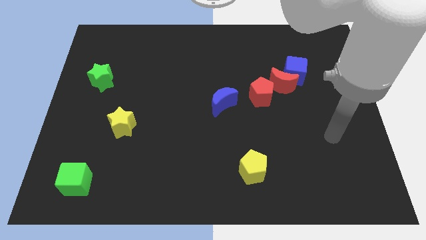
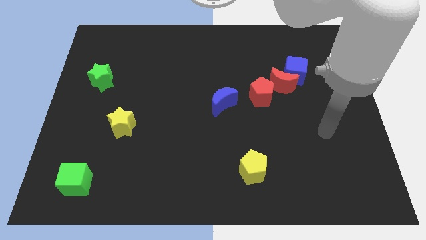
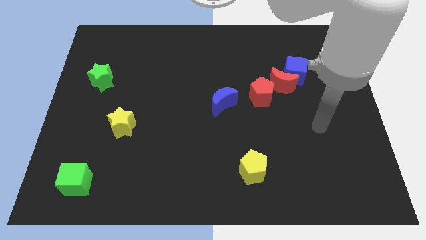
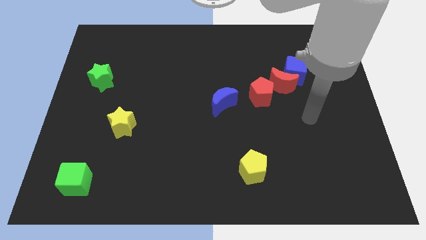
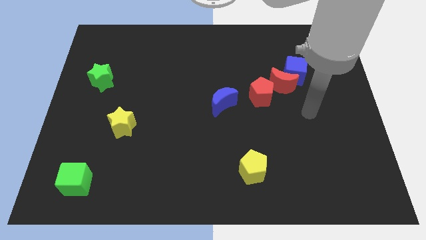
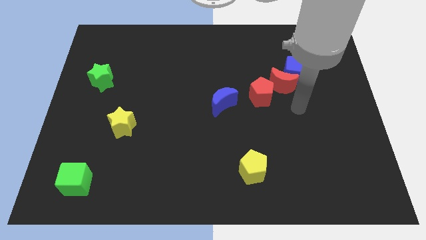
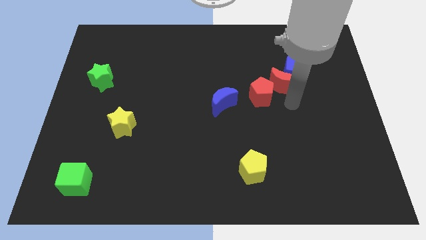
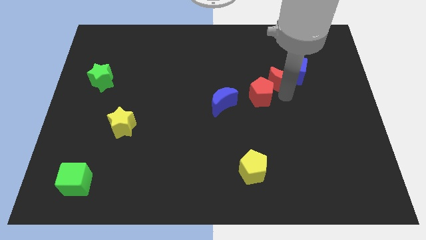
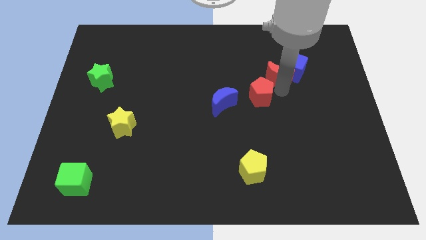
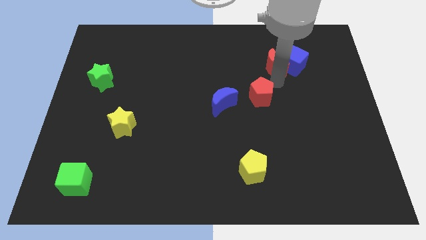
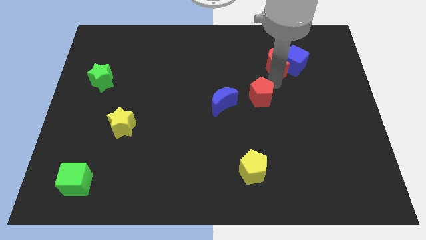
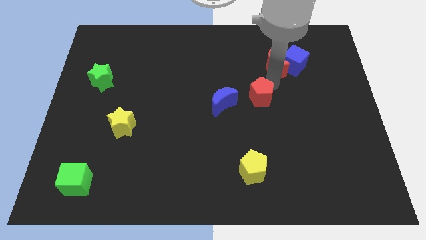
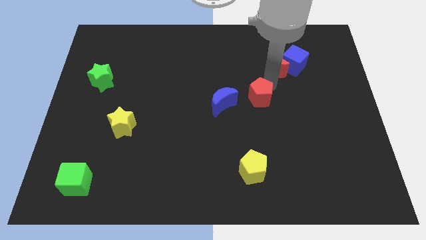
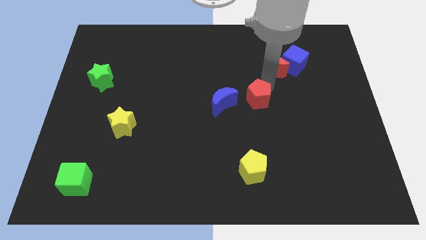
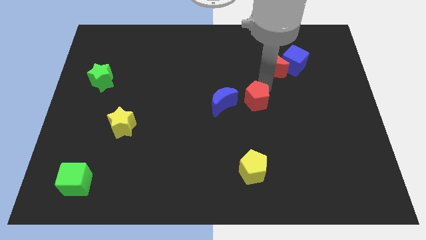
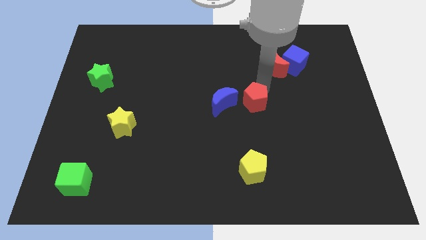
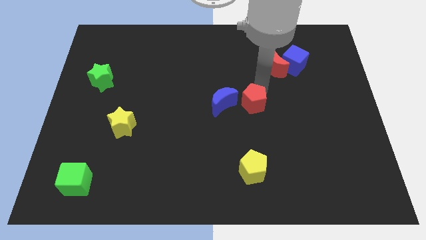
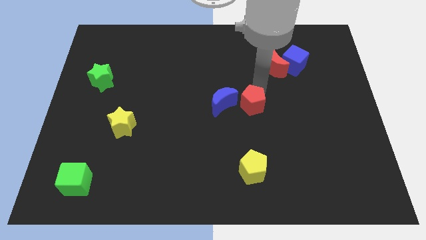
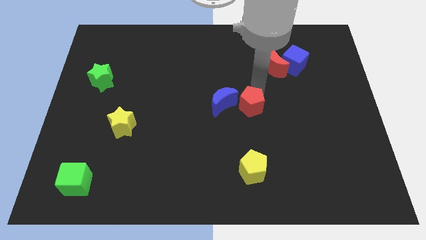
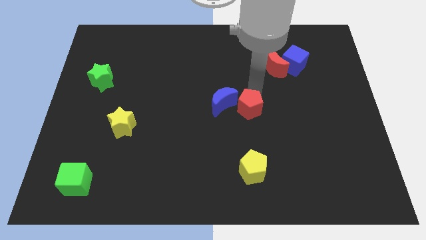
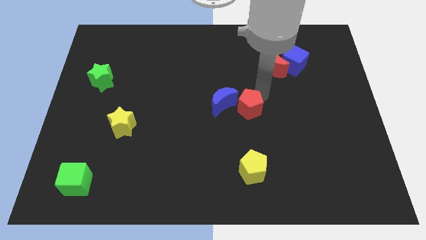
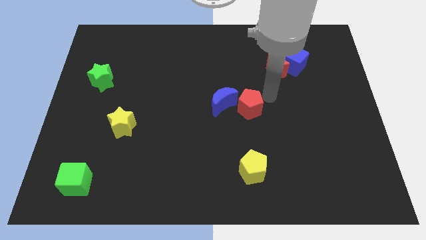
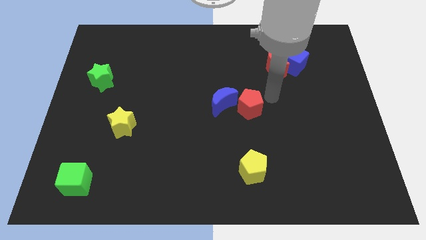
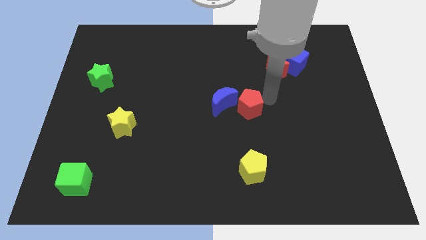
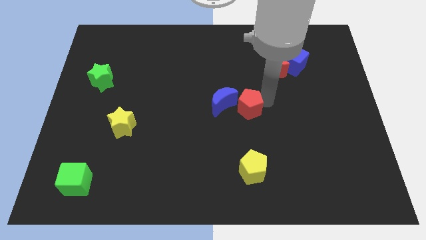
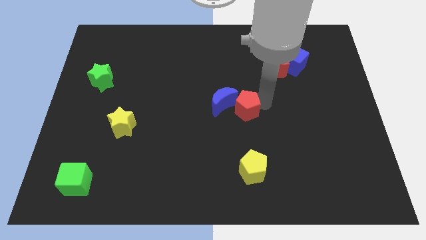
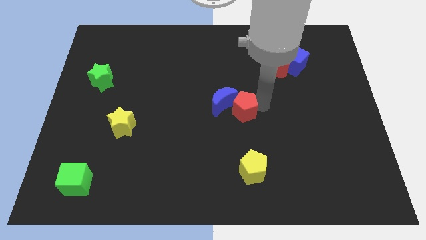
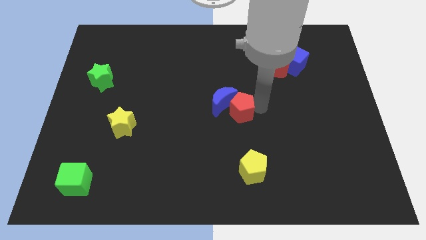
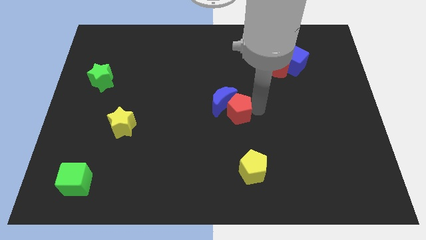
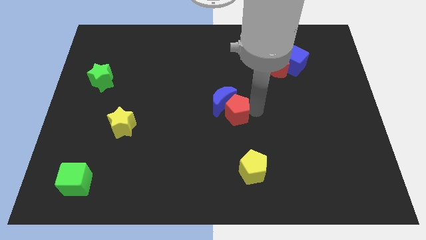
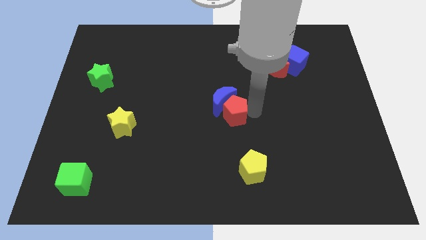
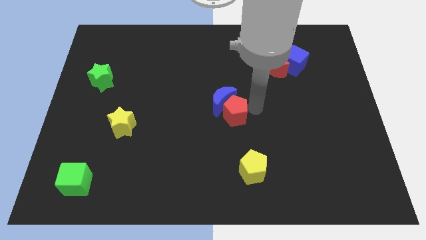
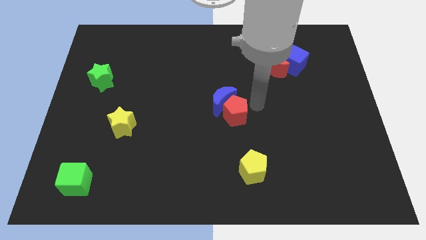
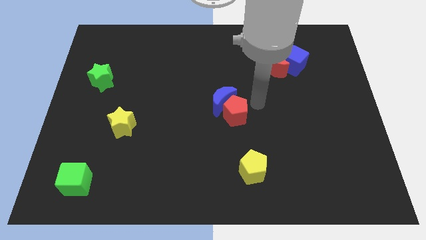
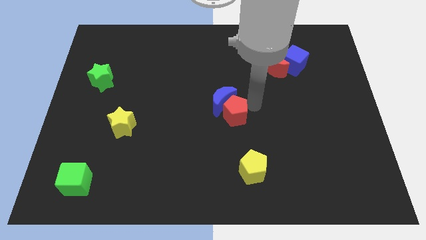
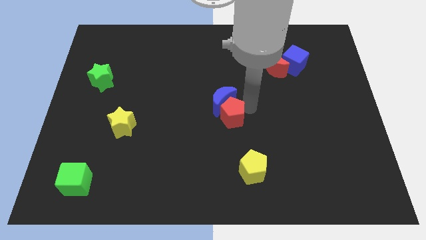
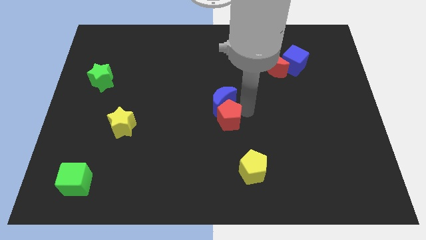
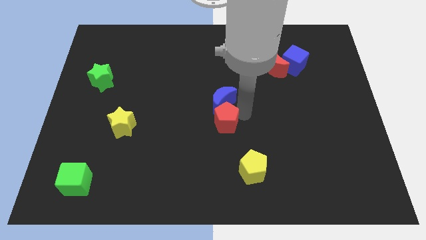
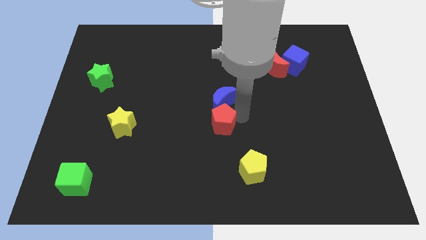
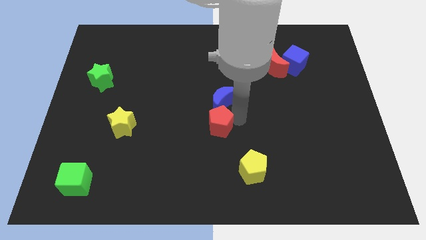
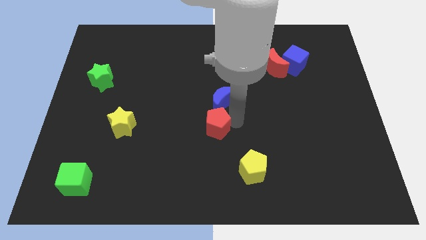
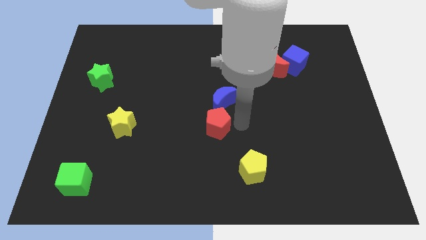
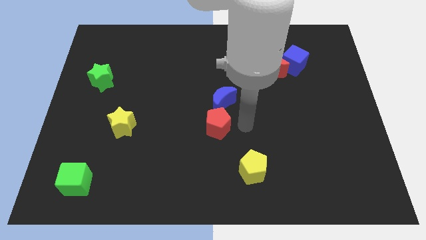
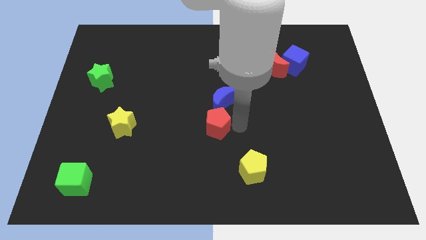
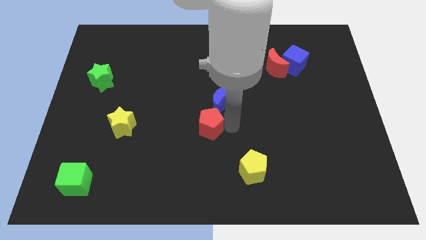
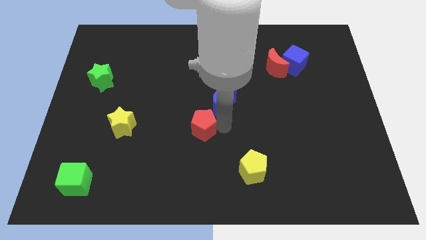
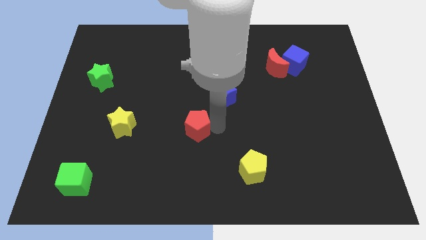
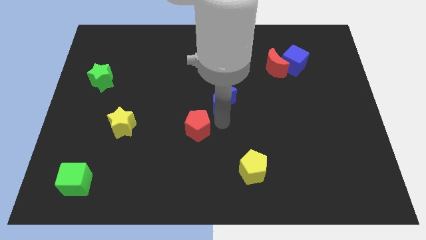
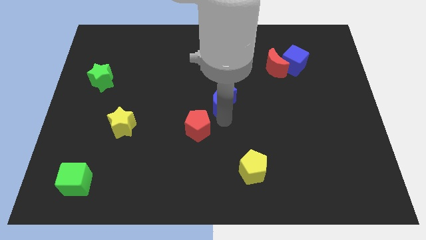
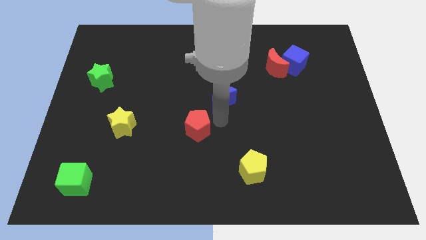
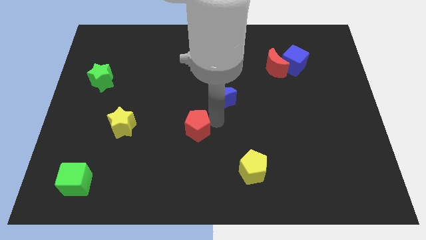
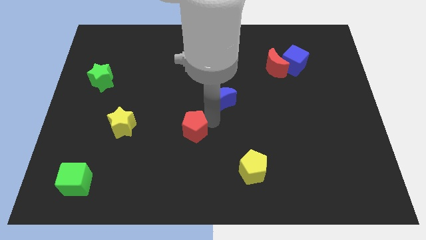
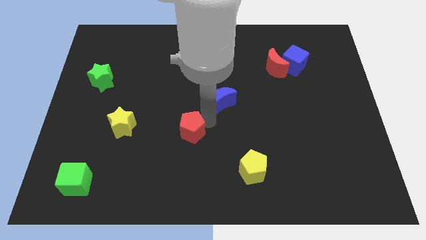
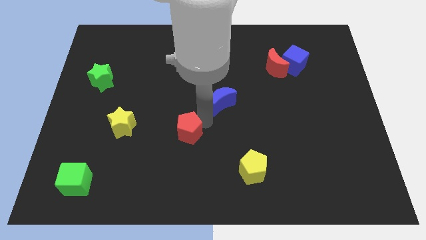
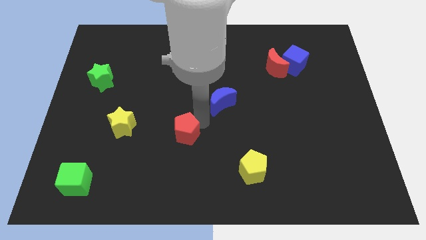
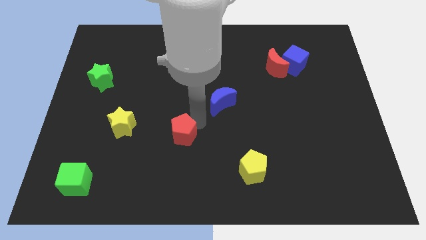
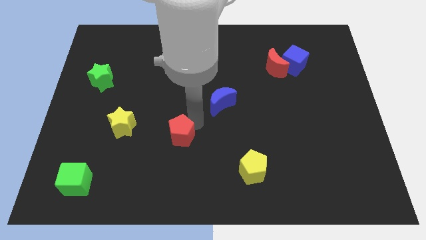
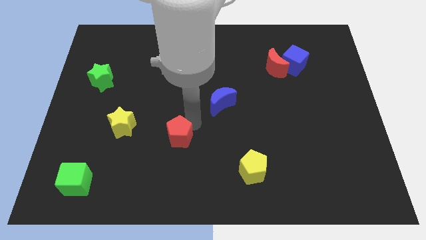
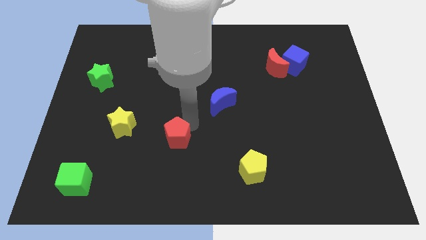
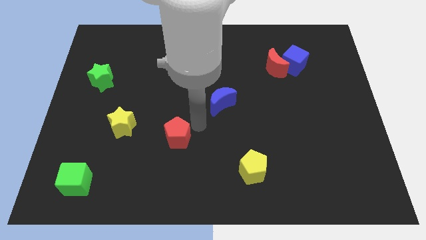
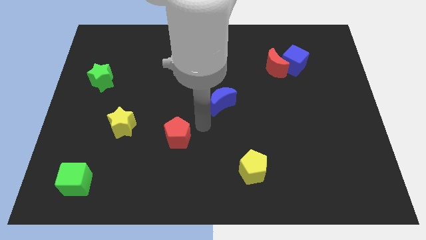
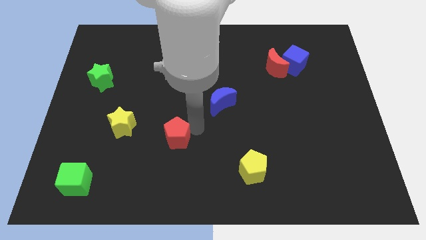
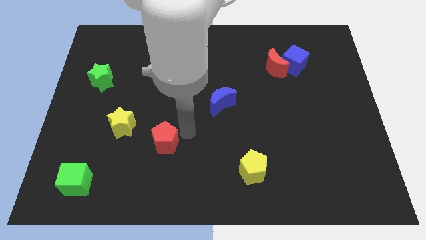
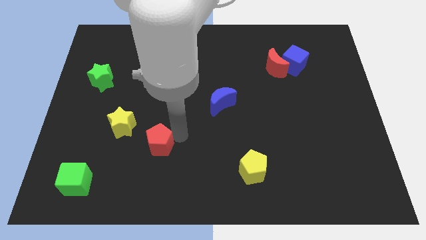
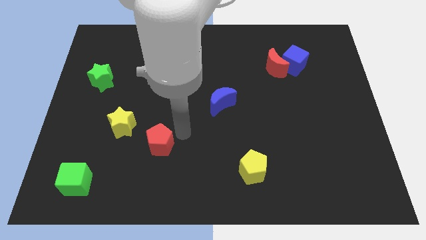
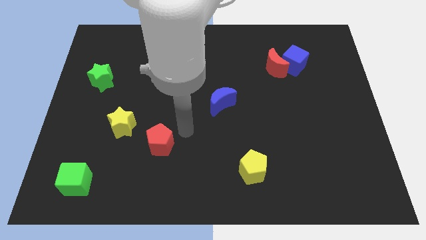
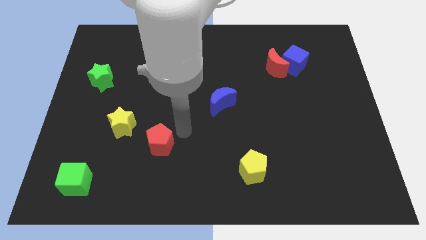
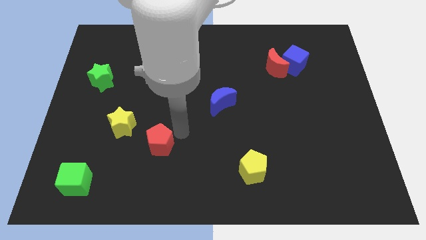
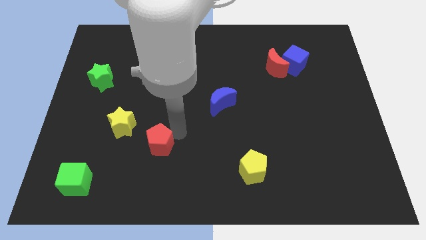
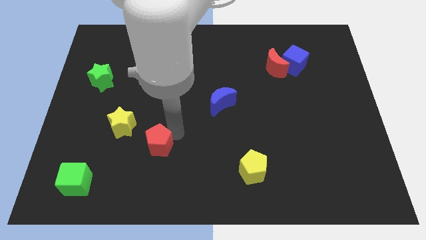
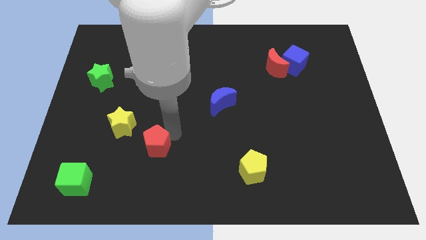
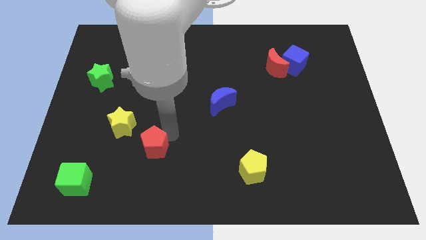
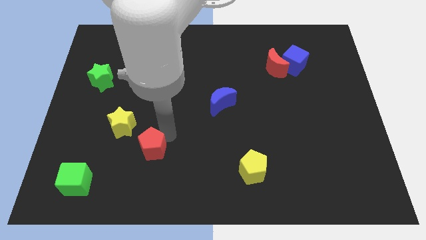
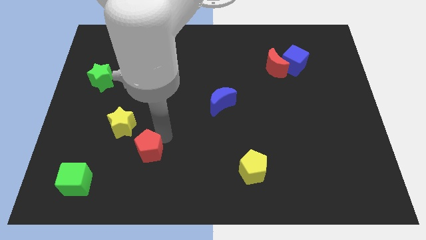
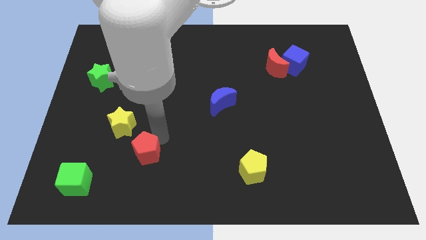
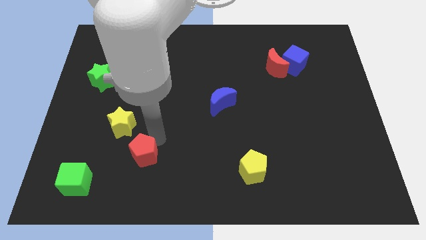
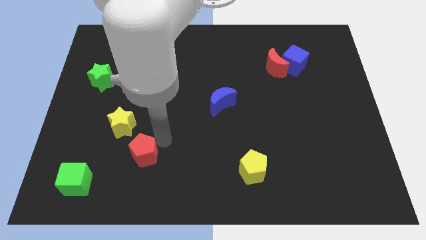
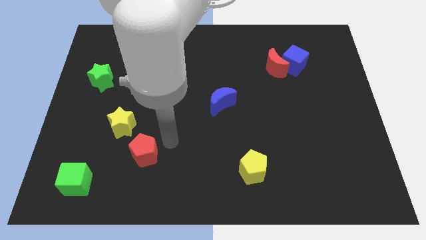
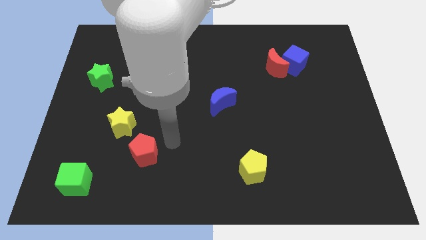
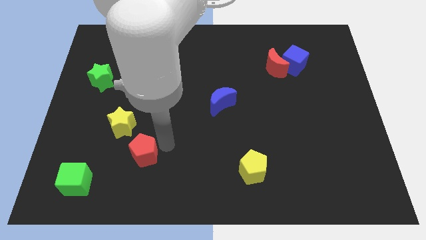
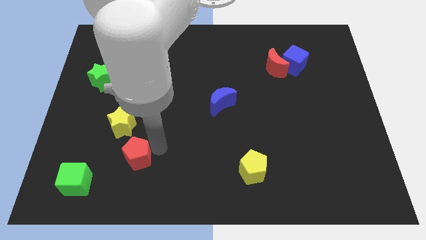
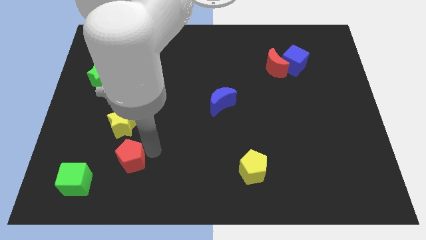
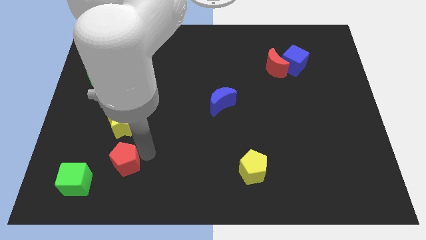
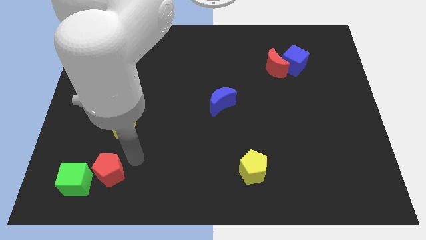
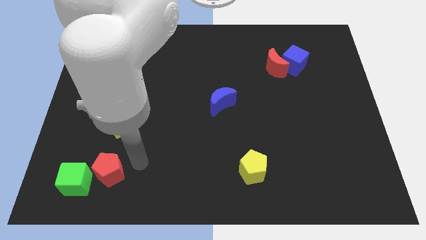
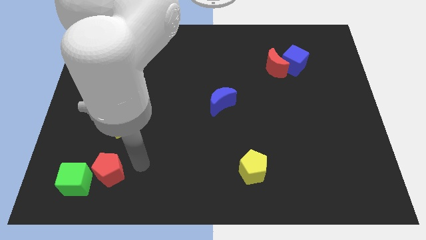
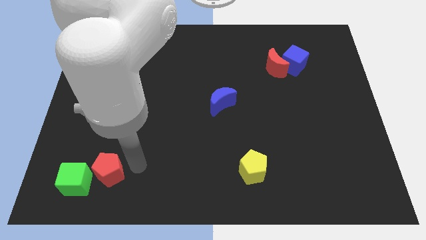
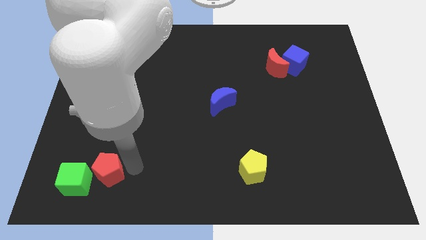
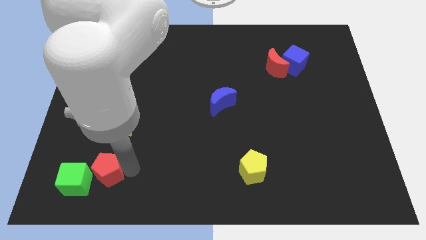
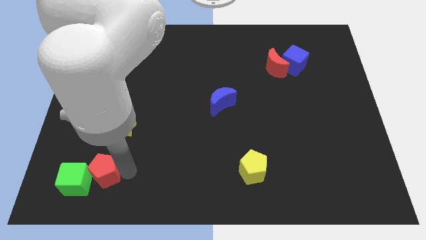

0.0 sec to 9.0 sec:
slide the red pentagon close to the green cube
